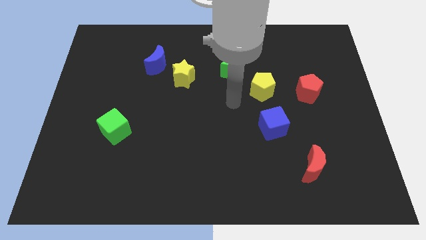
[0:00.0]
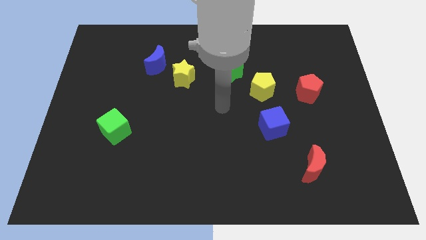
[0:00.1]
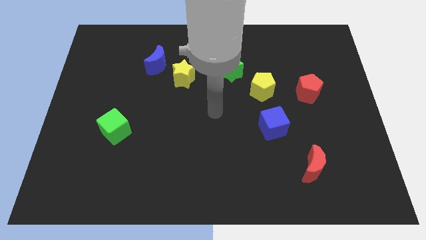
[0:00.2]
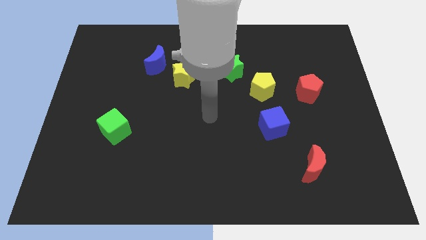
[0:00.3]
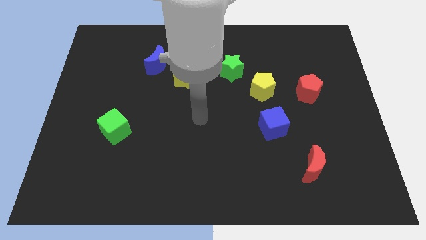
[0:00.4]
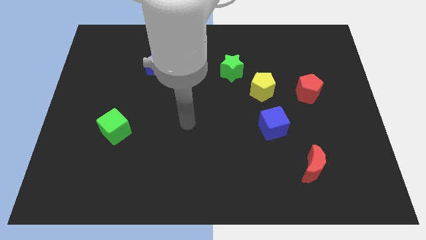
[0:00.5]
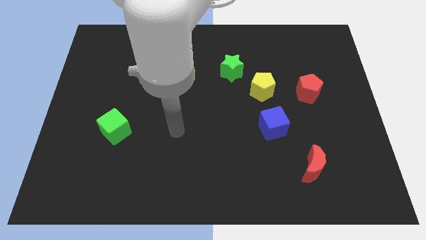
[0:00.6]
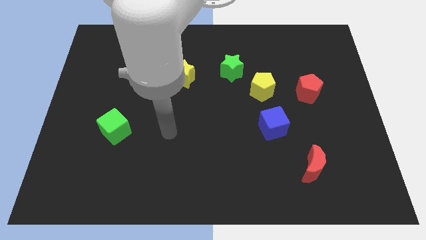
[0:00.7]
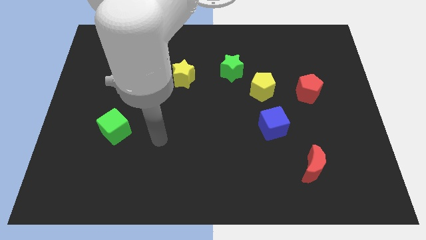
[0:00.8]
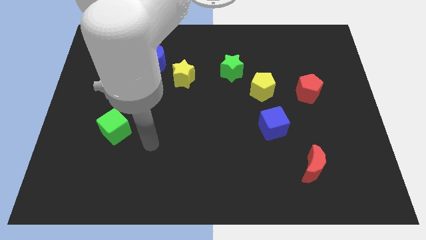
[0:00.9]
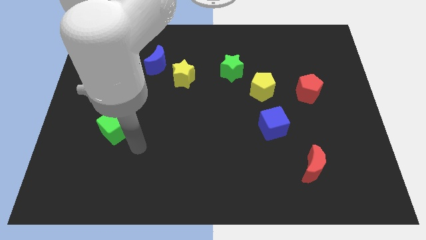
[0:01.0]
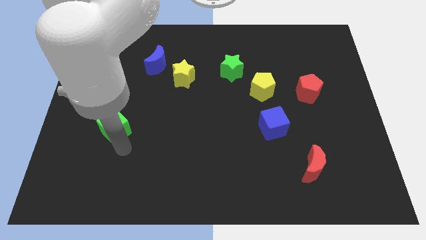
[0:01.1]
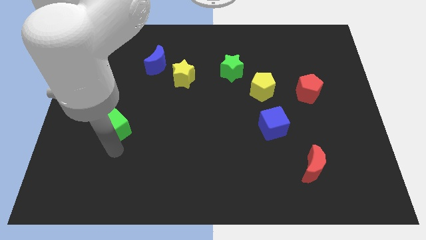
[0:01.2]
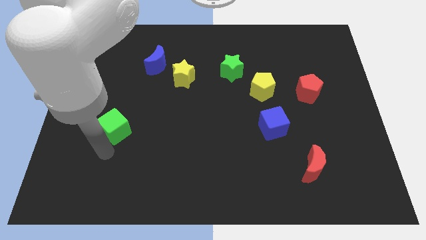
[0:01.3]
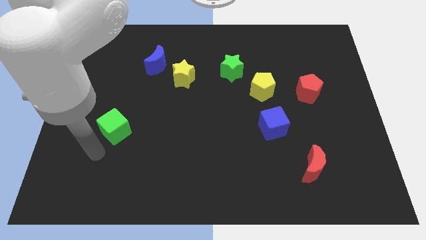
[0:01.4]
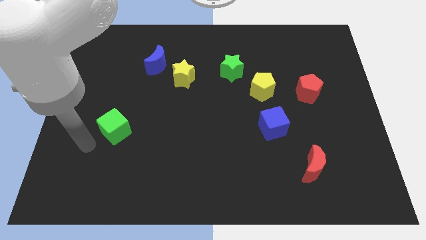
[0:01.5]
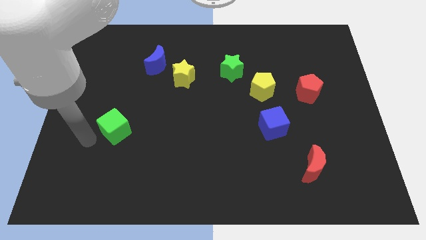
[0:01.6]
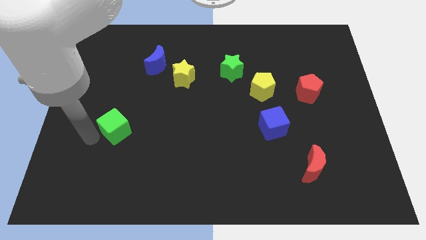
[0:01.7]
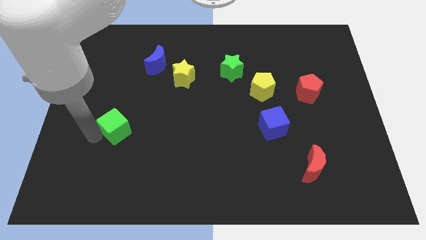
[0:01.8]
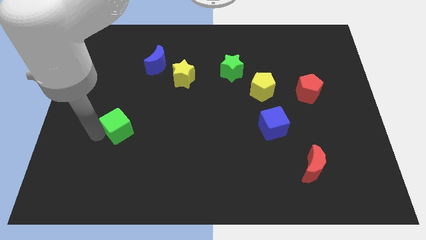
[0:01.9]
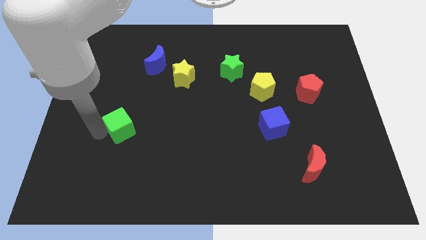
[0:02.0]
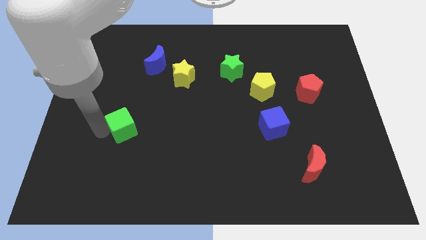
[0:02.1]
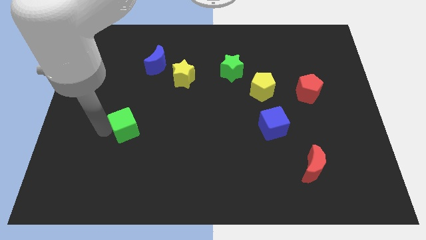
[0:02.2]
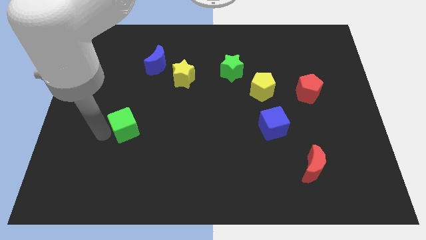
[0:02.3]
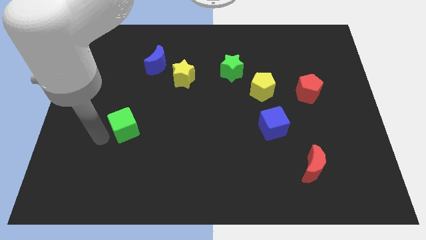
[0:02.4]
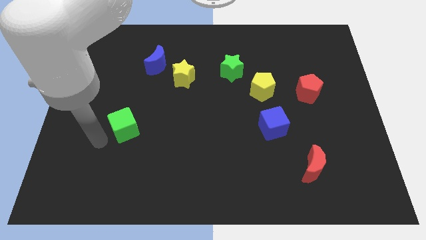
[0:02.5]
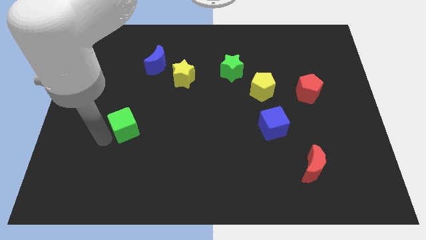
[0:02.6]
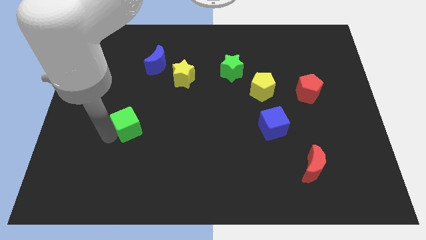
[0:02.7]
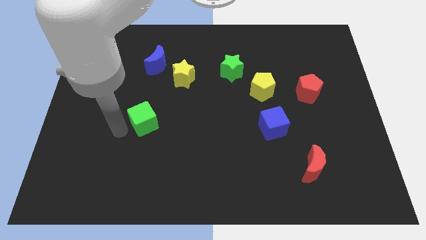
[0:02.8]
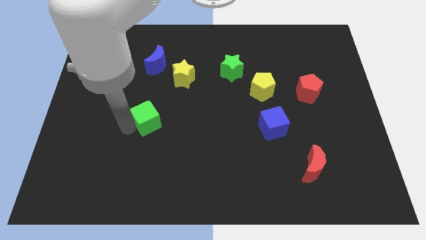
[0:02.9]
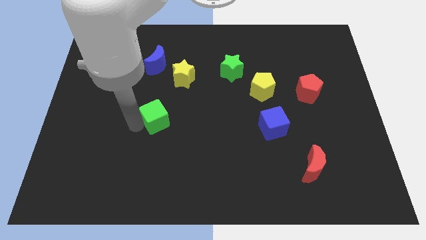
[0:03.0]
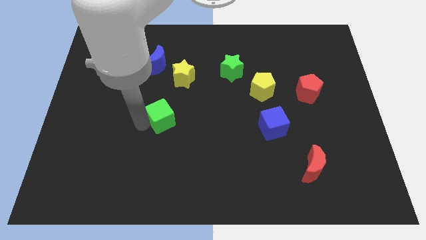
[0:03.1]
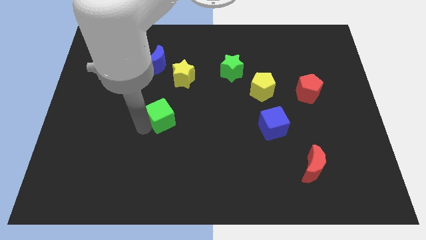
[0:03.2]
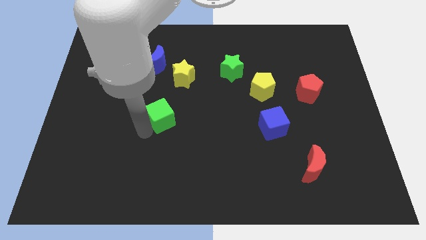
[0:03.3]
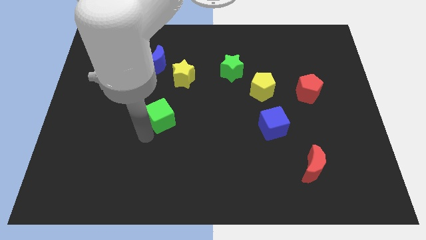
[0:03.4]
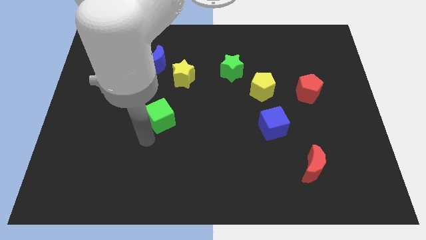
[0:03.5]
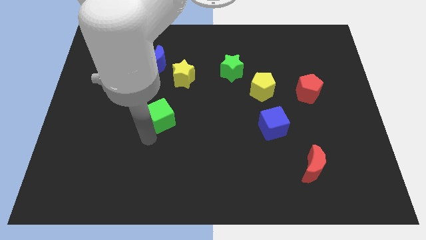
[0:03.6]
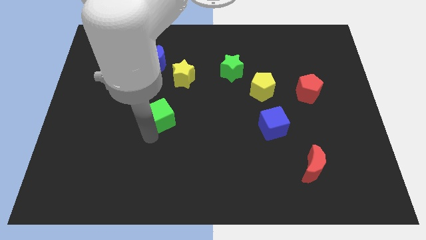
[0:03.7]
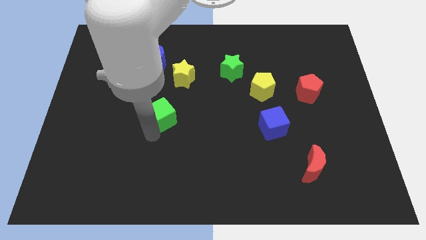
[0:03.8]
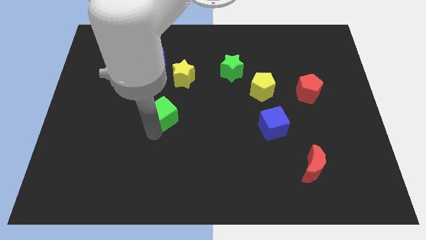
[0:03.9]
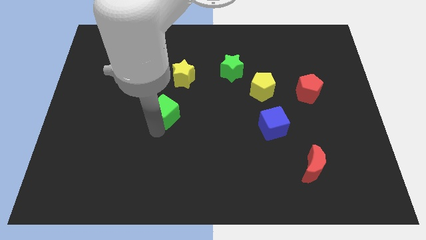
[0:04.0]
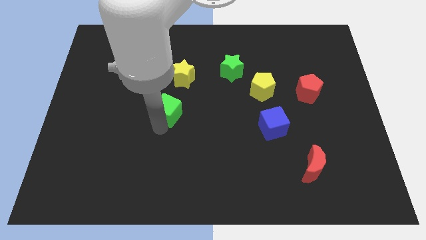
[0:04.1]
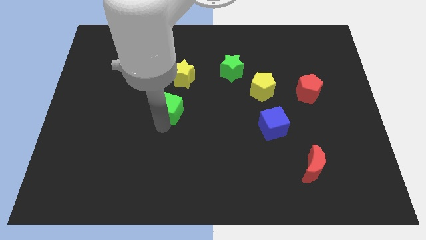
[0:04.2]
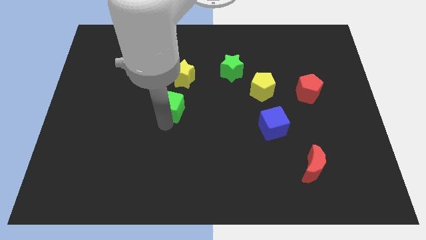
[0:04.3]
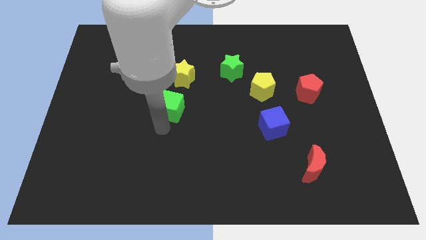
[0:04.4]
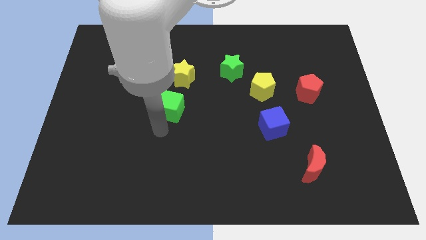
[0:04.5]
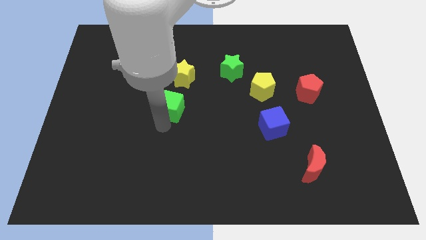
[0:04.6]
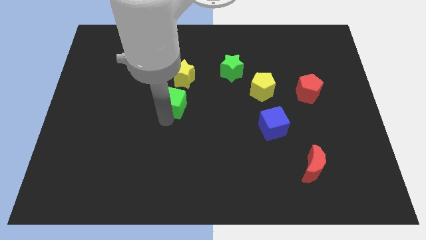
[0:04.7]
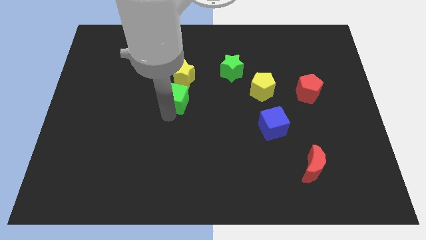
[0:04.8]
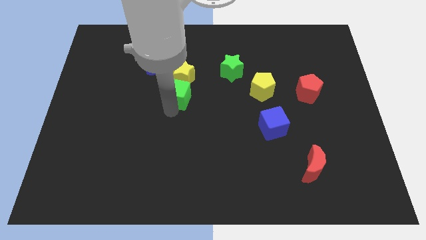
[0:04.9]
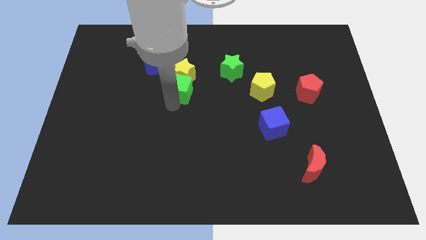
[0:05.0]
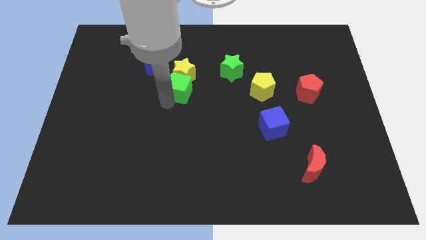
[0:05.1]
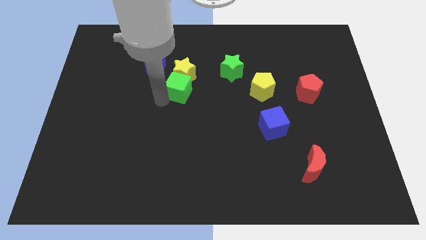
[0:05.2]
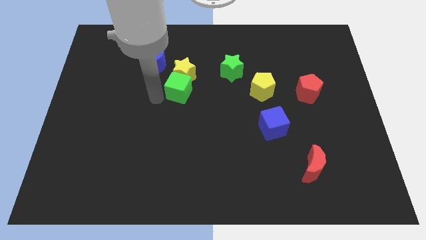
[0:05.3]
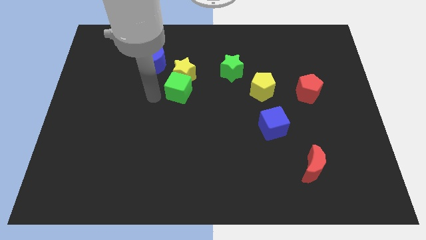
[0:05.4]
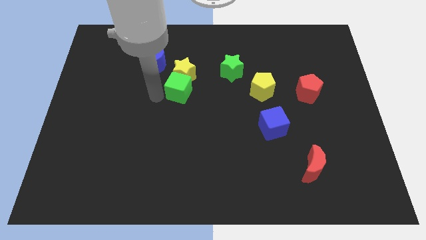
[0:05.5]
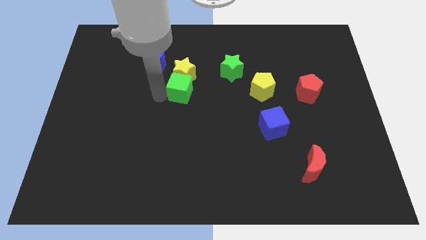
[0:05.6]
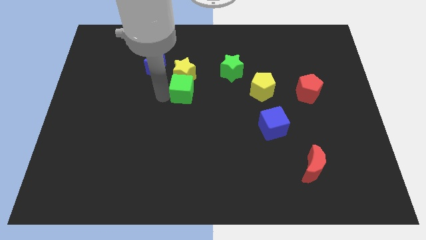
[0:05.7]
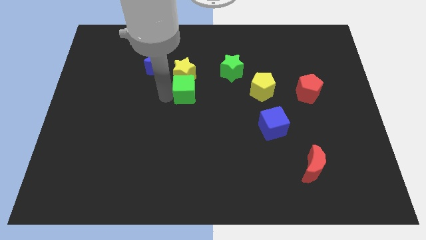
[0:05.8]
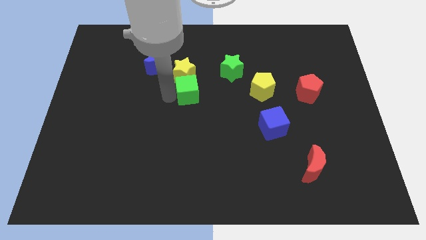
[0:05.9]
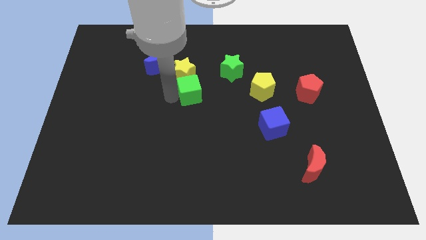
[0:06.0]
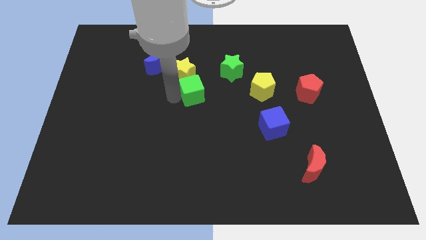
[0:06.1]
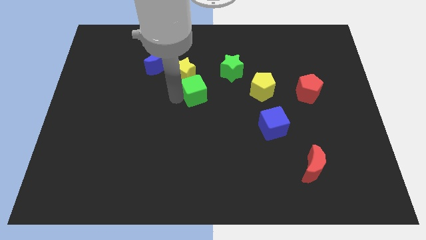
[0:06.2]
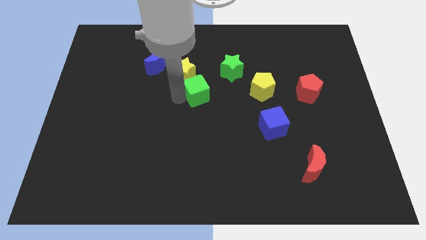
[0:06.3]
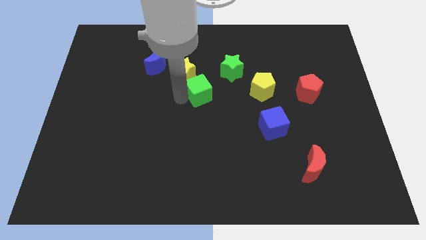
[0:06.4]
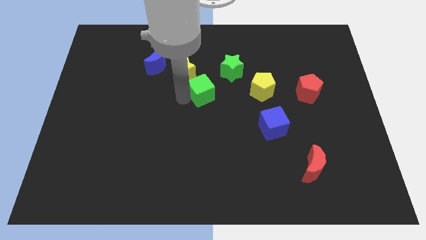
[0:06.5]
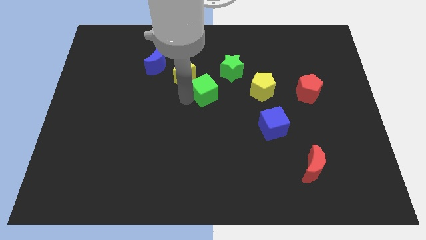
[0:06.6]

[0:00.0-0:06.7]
move the green cube up and then right

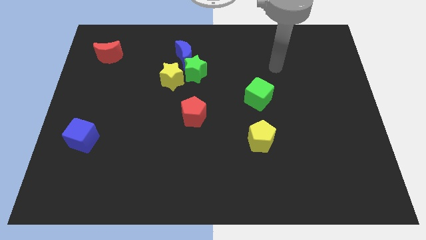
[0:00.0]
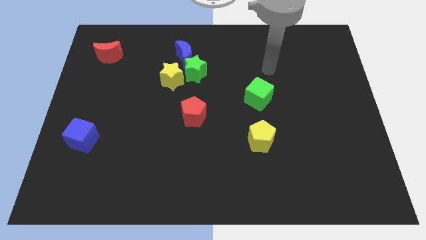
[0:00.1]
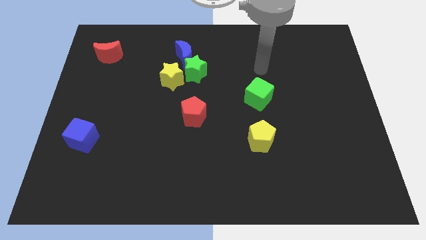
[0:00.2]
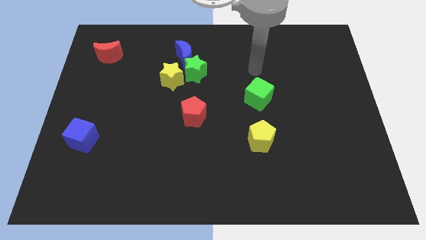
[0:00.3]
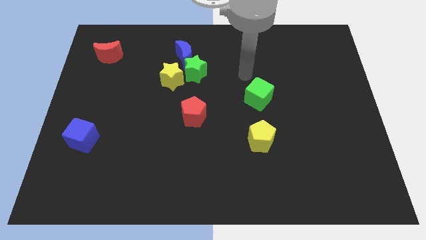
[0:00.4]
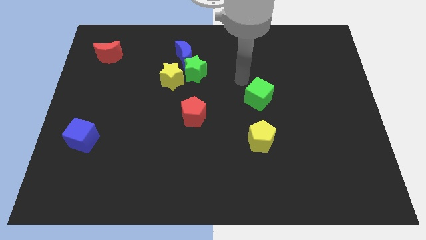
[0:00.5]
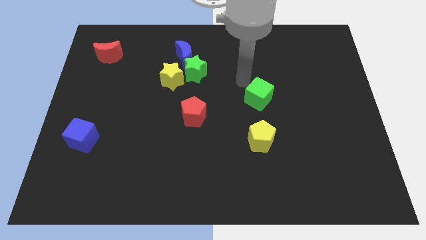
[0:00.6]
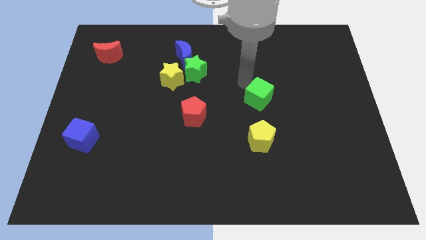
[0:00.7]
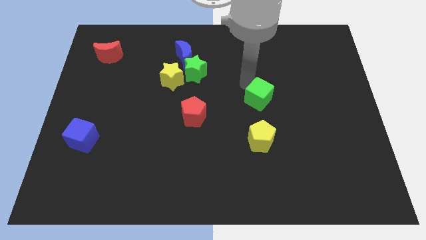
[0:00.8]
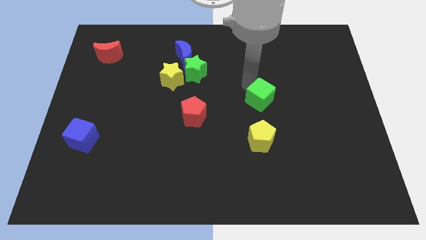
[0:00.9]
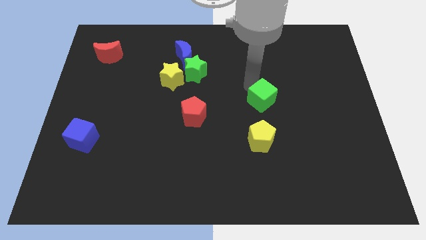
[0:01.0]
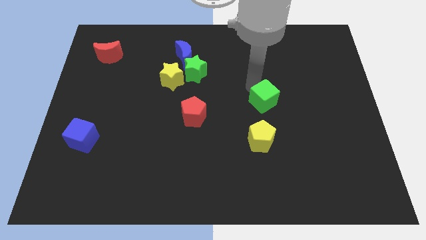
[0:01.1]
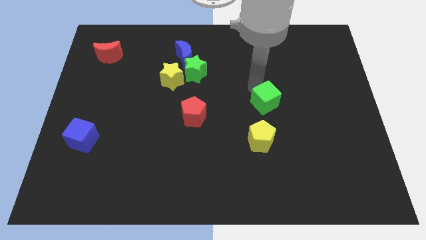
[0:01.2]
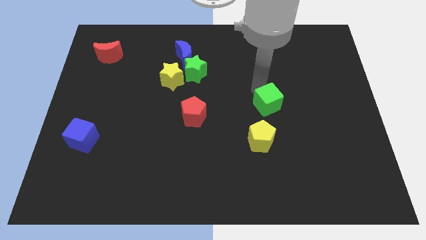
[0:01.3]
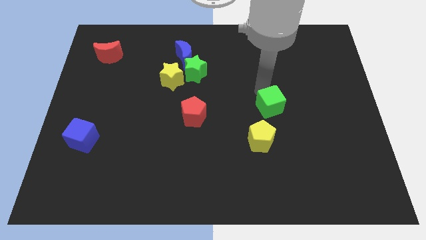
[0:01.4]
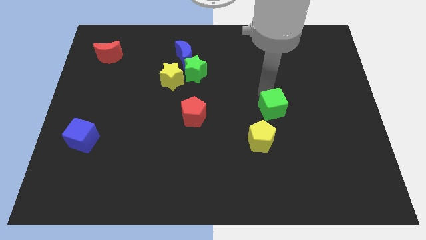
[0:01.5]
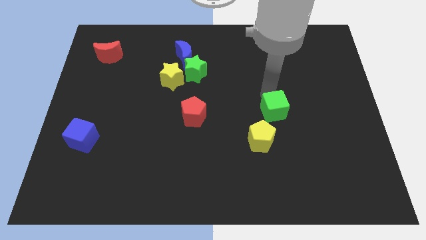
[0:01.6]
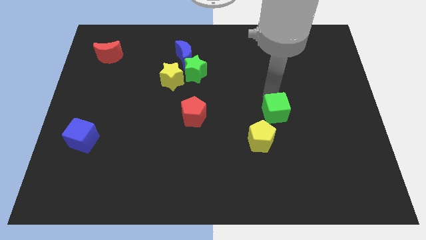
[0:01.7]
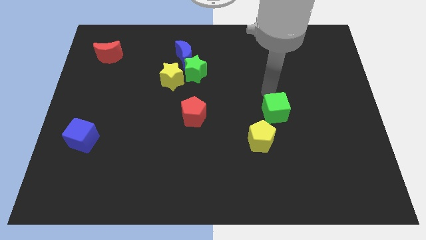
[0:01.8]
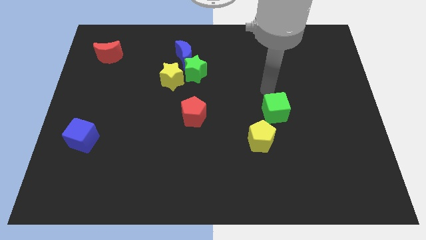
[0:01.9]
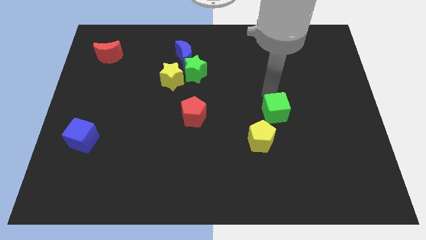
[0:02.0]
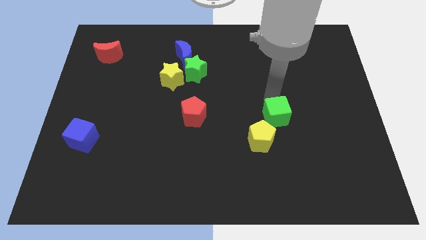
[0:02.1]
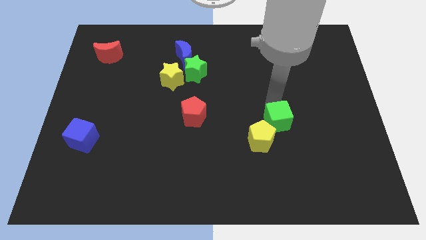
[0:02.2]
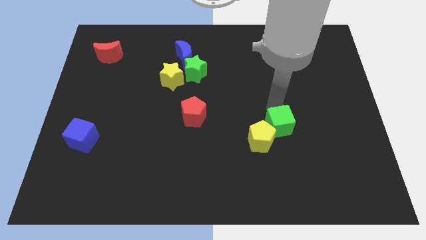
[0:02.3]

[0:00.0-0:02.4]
slightly slide the green cube downwards
